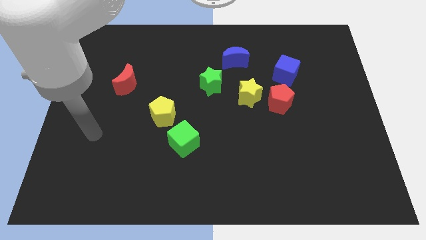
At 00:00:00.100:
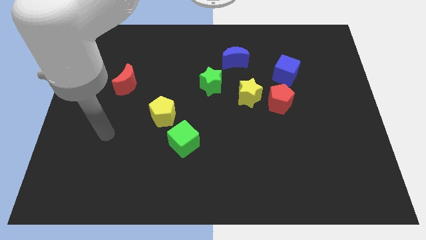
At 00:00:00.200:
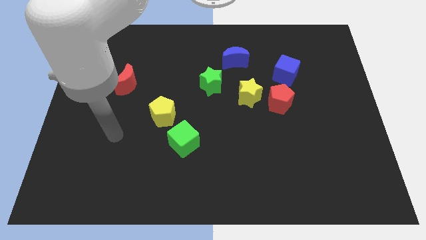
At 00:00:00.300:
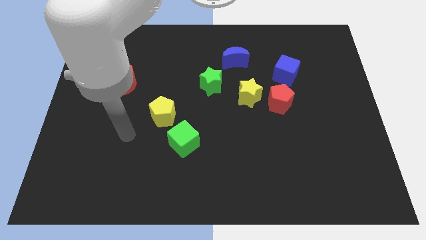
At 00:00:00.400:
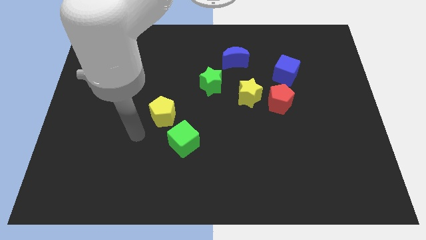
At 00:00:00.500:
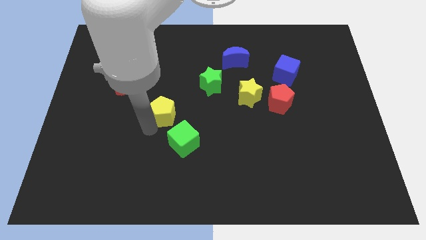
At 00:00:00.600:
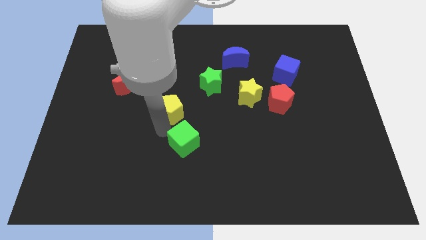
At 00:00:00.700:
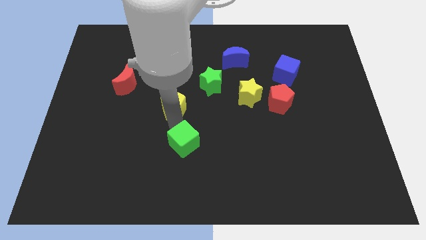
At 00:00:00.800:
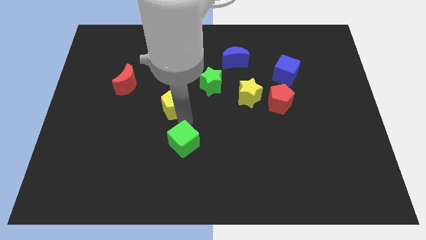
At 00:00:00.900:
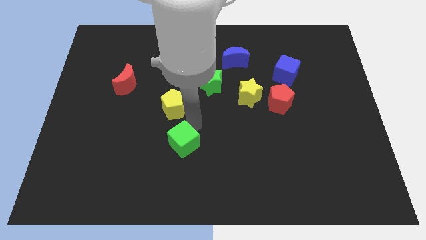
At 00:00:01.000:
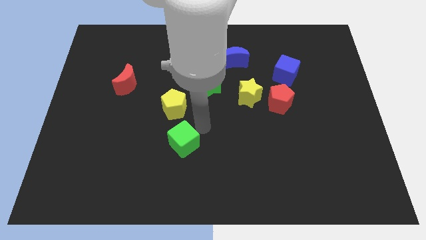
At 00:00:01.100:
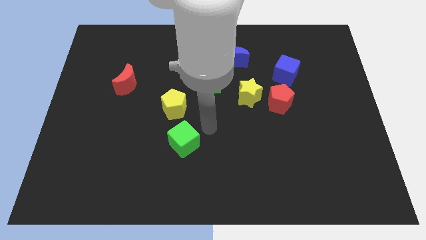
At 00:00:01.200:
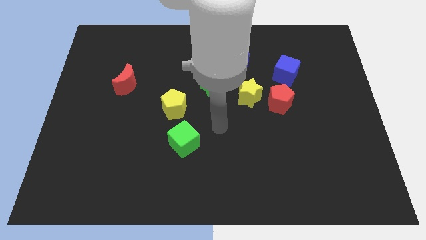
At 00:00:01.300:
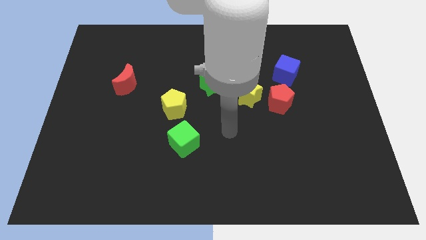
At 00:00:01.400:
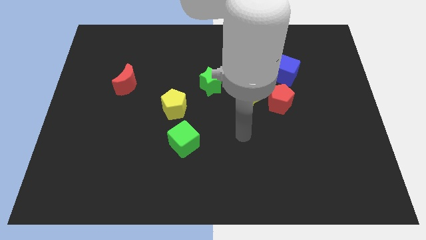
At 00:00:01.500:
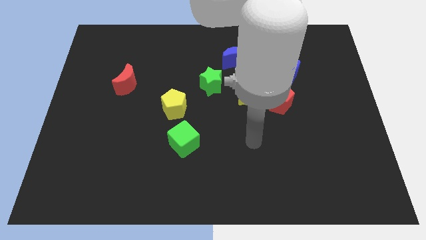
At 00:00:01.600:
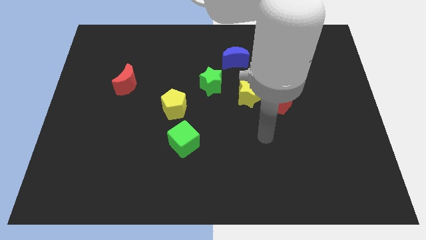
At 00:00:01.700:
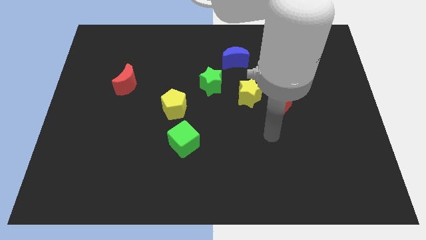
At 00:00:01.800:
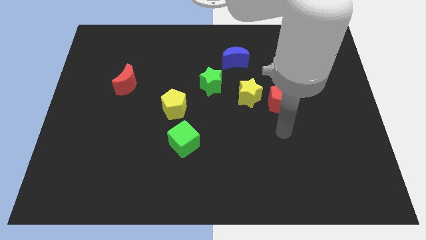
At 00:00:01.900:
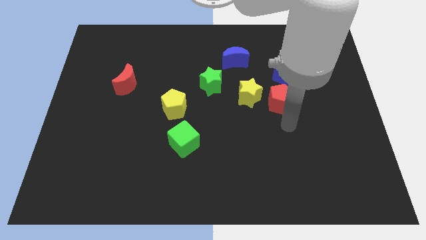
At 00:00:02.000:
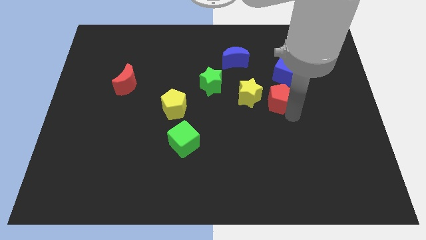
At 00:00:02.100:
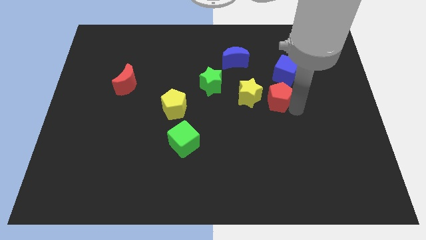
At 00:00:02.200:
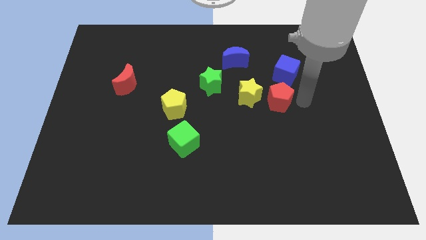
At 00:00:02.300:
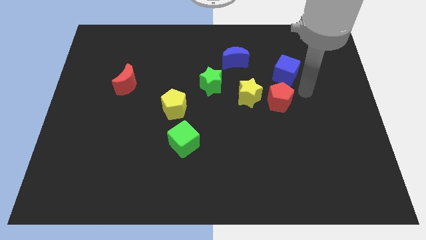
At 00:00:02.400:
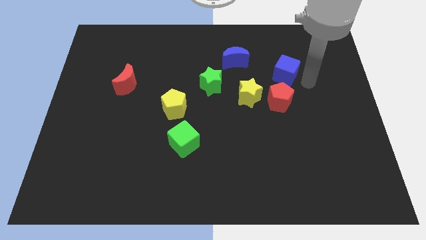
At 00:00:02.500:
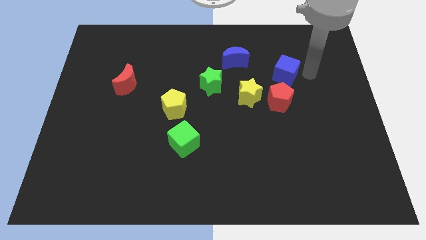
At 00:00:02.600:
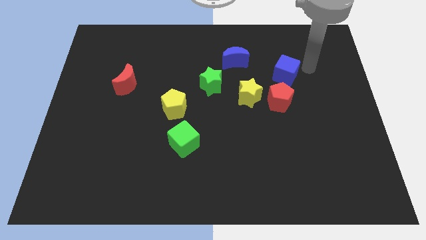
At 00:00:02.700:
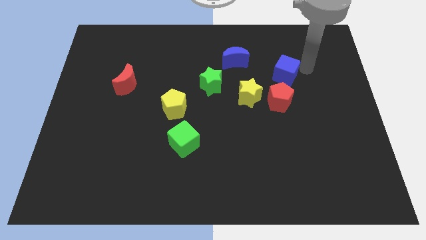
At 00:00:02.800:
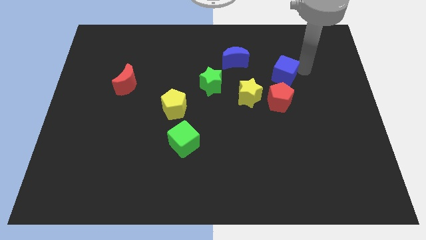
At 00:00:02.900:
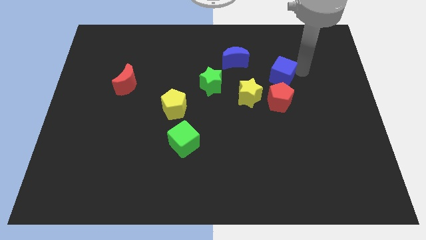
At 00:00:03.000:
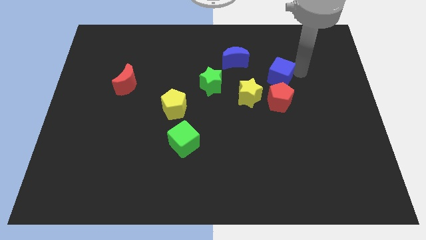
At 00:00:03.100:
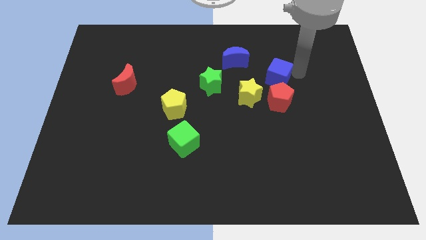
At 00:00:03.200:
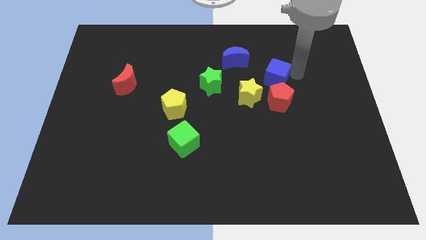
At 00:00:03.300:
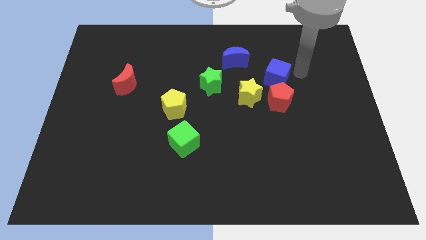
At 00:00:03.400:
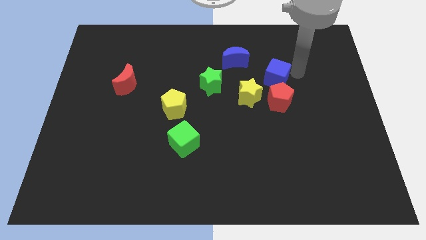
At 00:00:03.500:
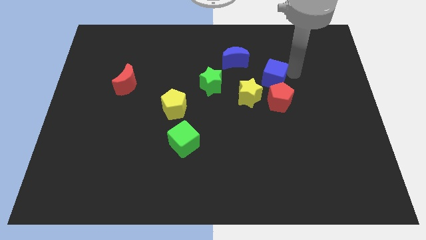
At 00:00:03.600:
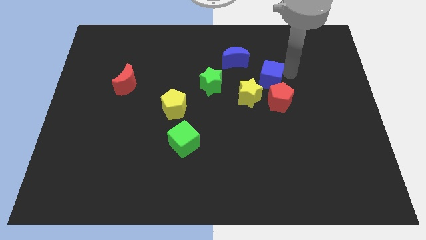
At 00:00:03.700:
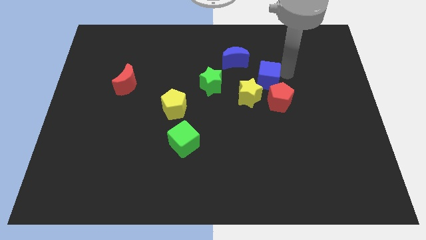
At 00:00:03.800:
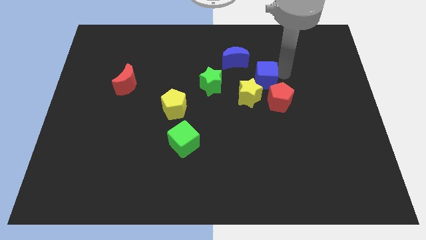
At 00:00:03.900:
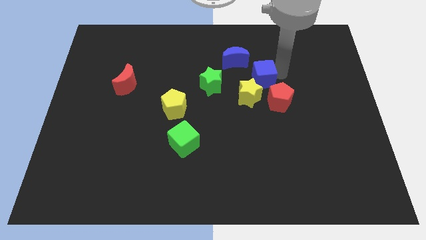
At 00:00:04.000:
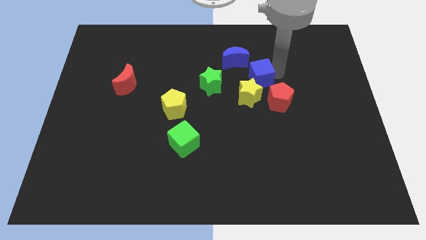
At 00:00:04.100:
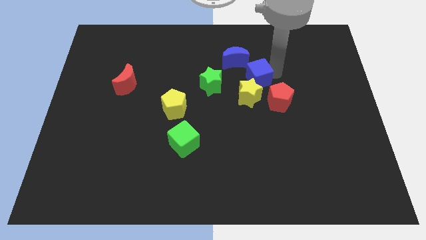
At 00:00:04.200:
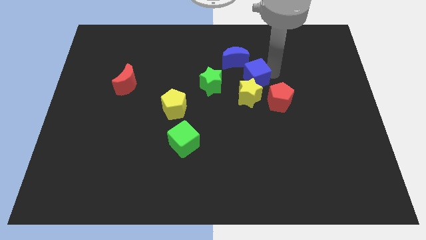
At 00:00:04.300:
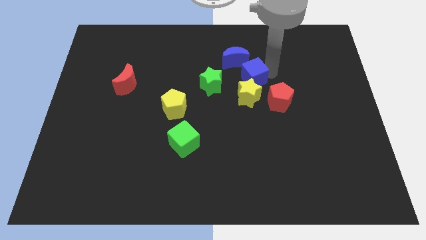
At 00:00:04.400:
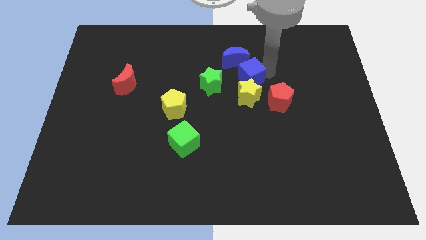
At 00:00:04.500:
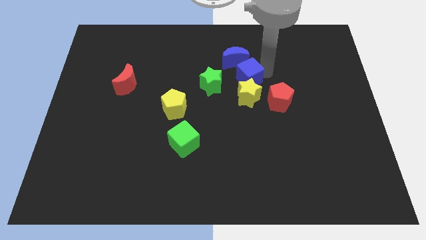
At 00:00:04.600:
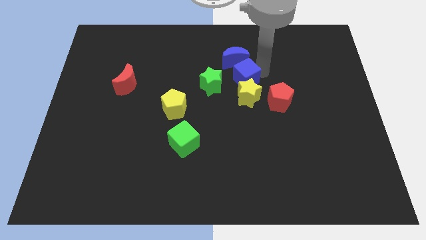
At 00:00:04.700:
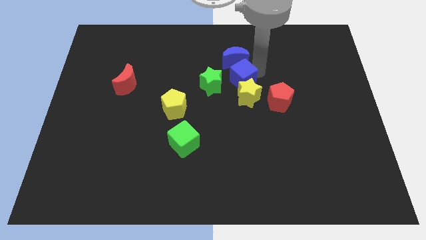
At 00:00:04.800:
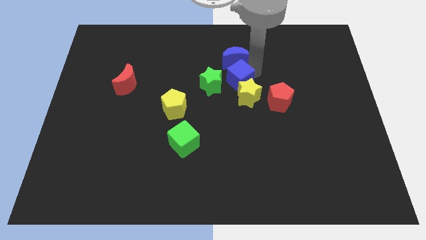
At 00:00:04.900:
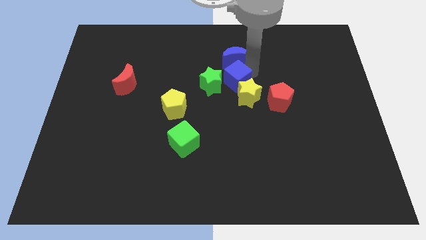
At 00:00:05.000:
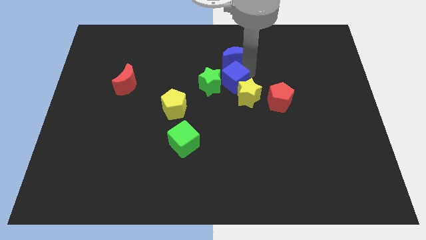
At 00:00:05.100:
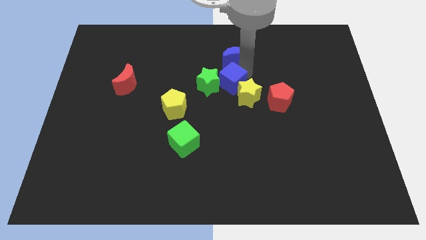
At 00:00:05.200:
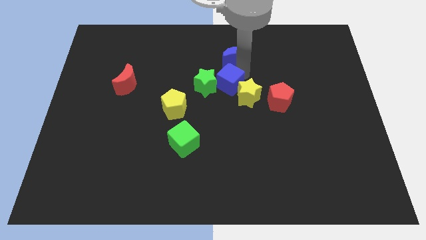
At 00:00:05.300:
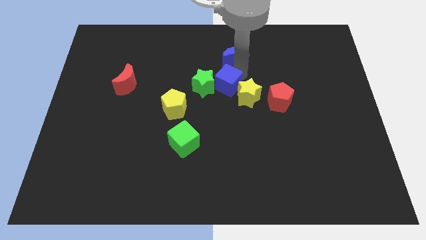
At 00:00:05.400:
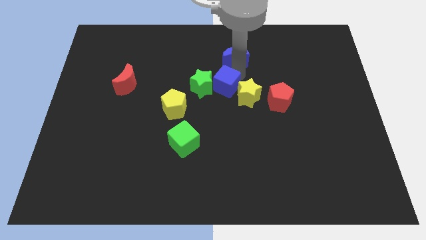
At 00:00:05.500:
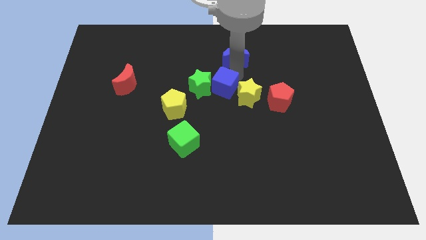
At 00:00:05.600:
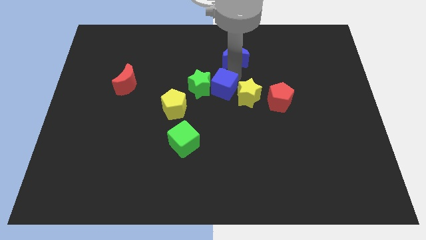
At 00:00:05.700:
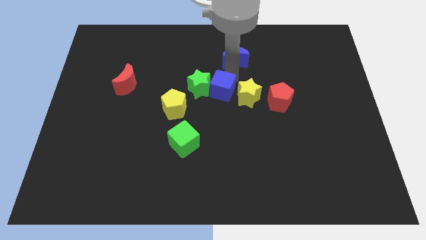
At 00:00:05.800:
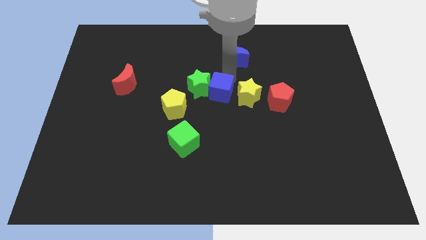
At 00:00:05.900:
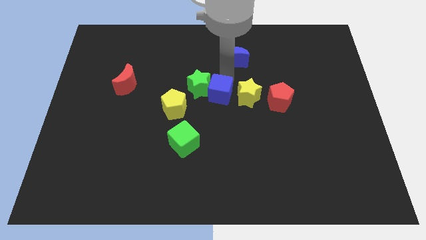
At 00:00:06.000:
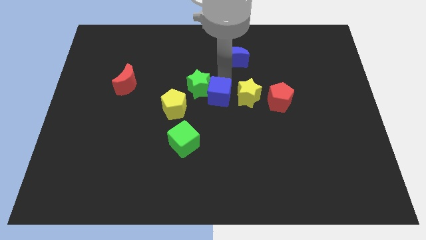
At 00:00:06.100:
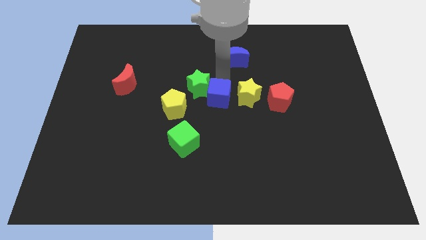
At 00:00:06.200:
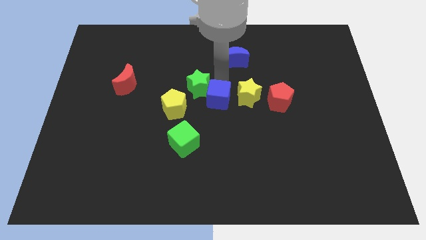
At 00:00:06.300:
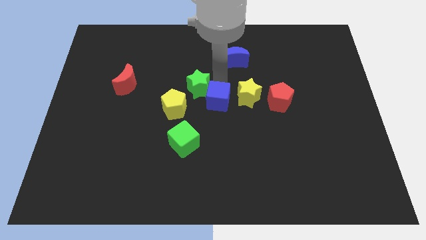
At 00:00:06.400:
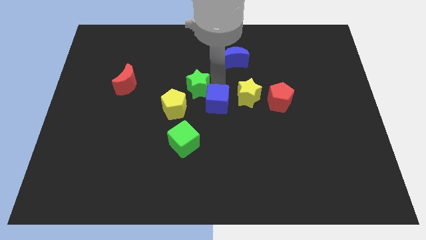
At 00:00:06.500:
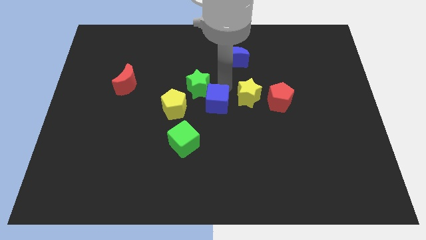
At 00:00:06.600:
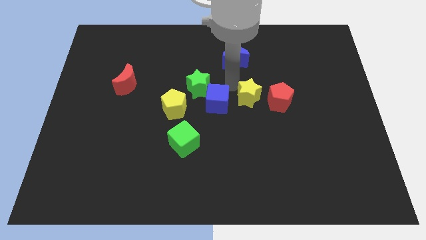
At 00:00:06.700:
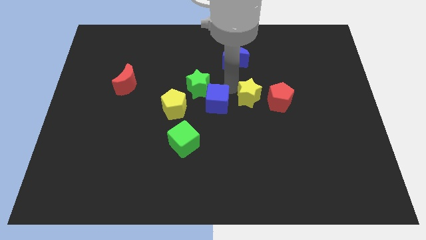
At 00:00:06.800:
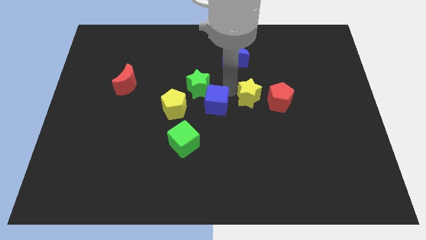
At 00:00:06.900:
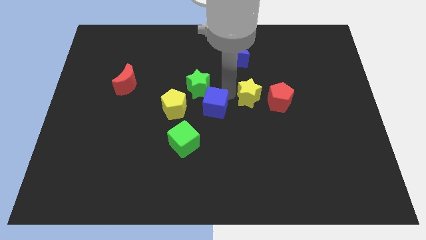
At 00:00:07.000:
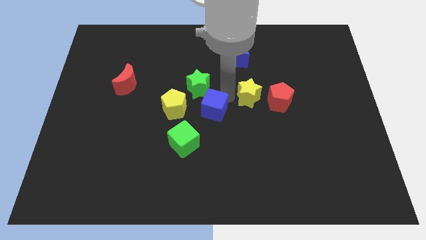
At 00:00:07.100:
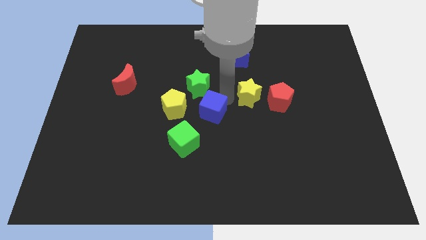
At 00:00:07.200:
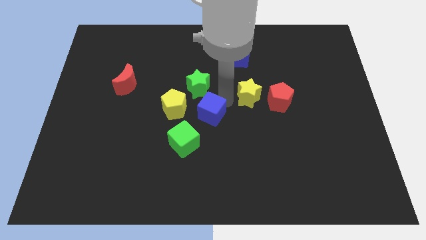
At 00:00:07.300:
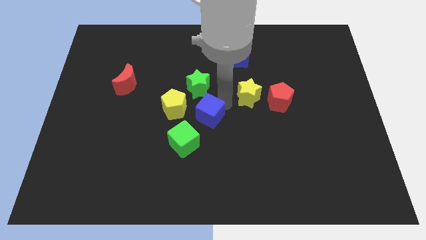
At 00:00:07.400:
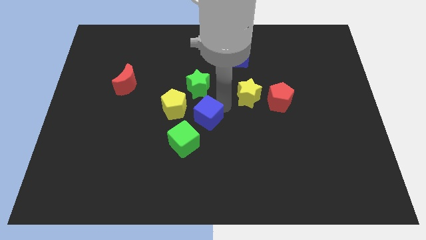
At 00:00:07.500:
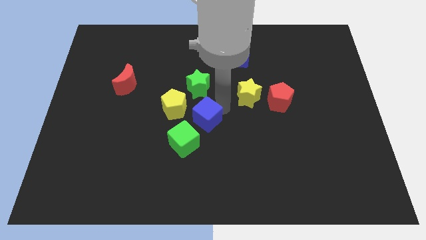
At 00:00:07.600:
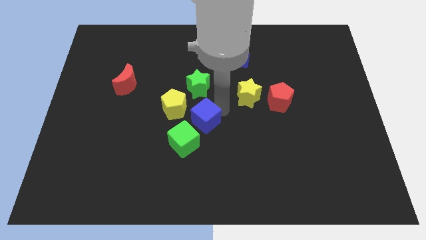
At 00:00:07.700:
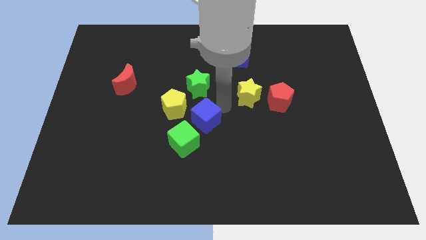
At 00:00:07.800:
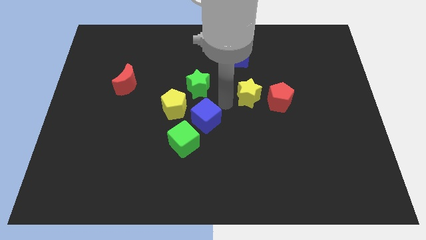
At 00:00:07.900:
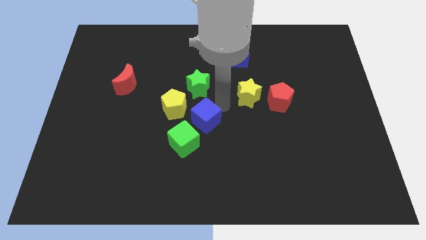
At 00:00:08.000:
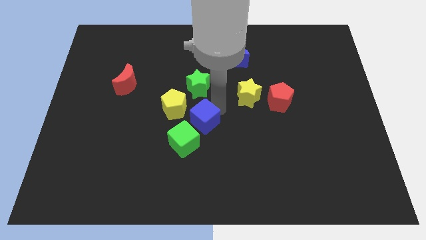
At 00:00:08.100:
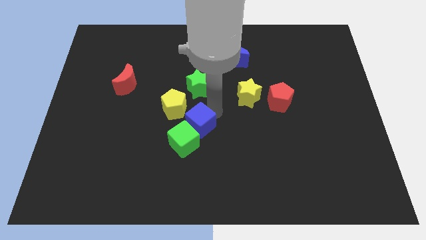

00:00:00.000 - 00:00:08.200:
push the blue cube to the green cube

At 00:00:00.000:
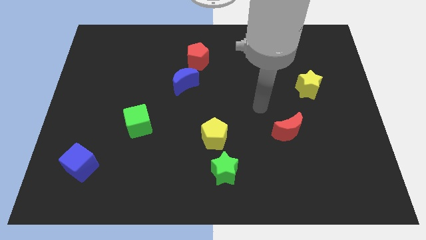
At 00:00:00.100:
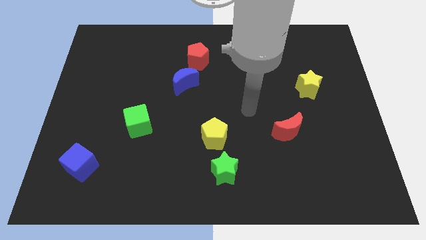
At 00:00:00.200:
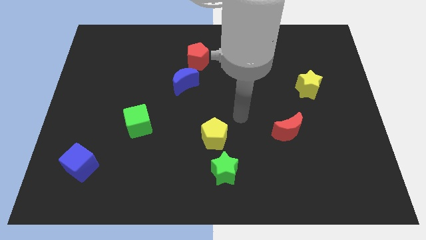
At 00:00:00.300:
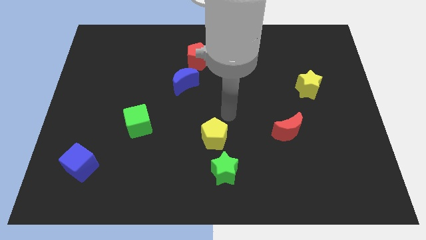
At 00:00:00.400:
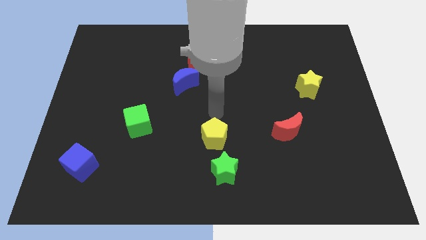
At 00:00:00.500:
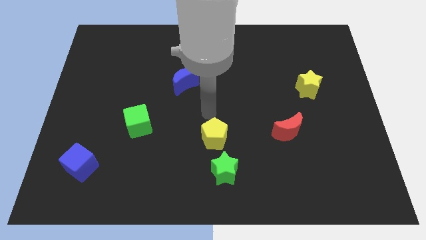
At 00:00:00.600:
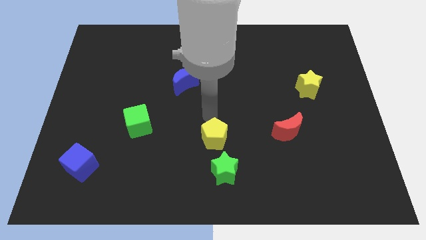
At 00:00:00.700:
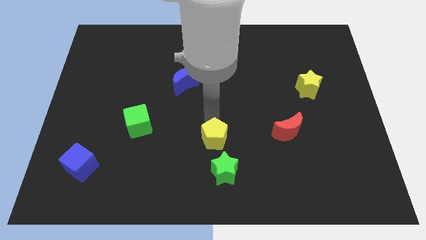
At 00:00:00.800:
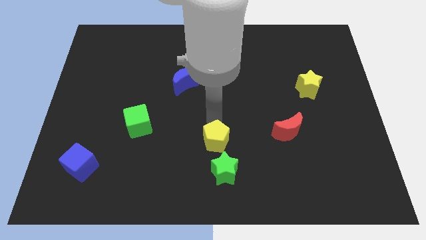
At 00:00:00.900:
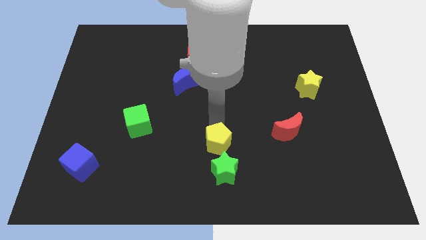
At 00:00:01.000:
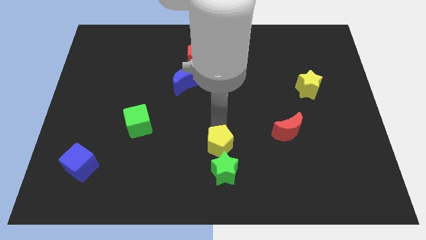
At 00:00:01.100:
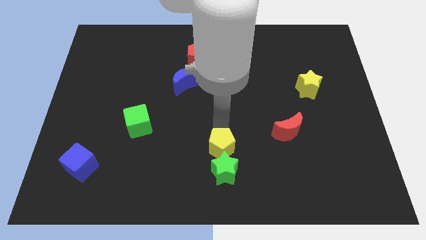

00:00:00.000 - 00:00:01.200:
put the yellow pentagon to the green star
